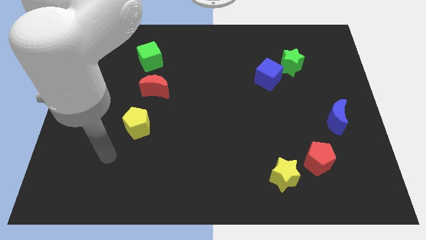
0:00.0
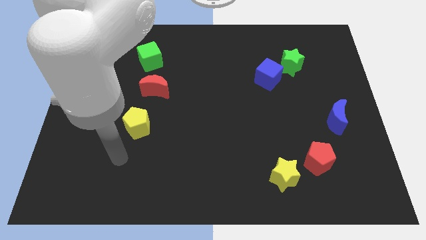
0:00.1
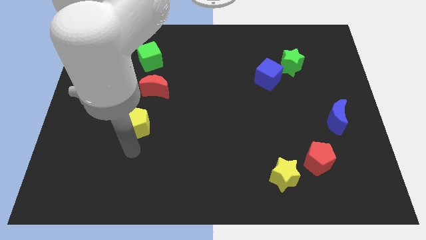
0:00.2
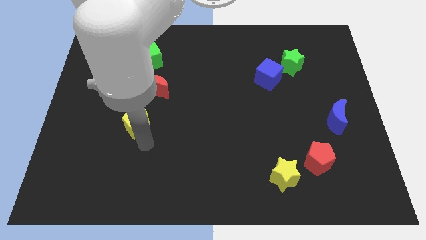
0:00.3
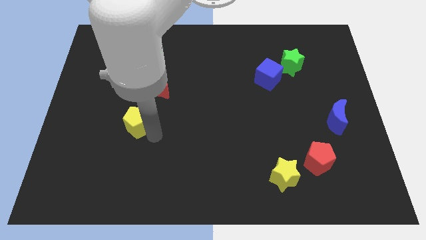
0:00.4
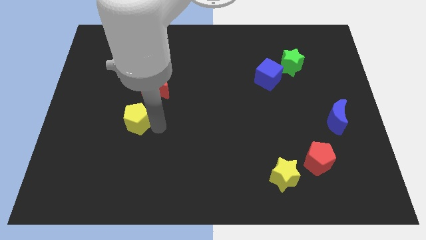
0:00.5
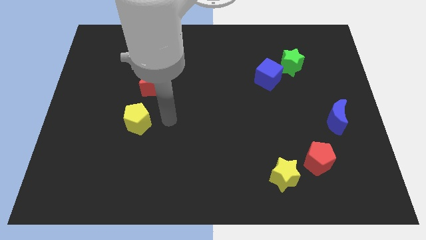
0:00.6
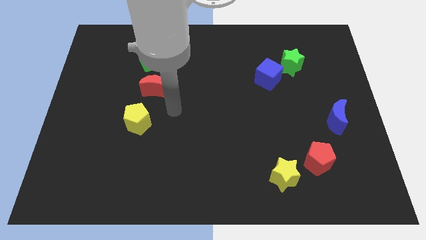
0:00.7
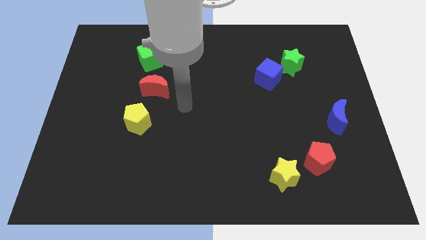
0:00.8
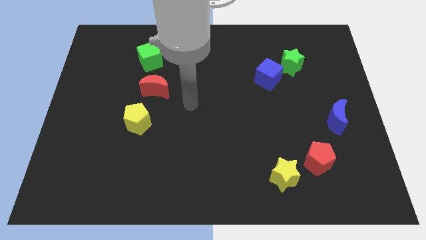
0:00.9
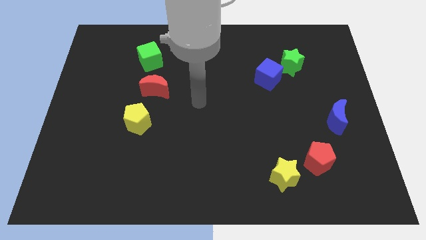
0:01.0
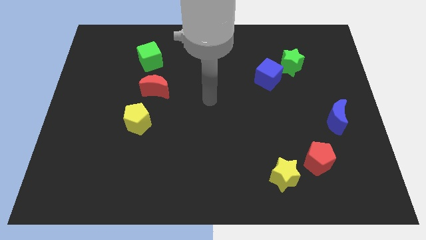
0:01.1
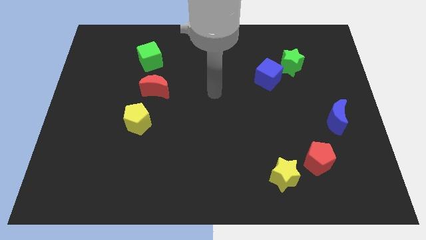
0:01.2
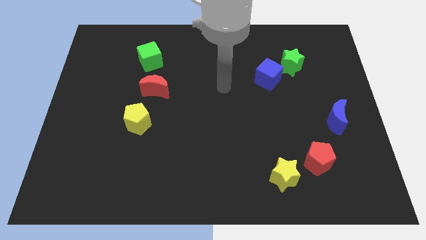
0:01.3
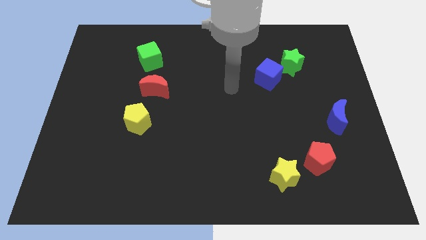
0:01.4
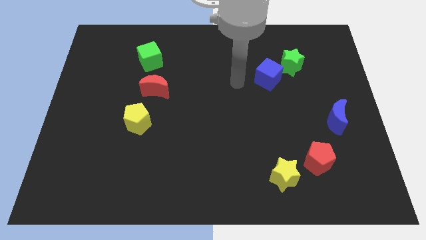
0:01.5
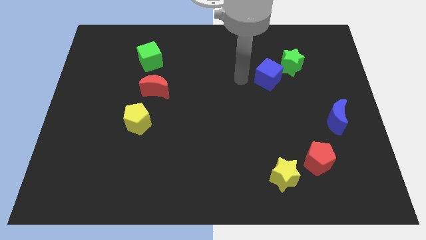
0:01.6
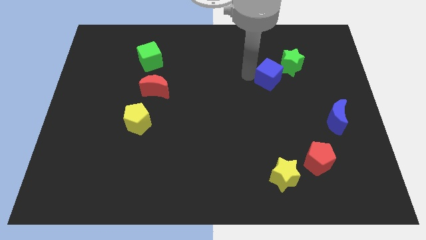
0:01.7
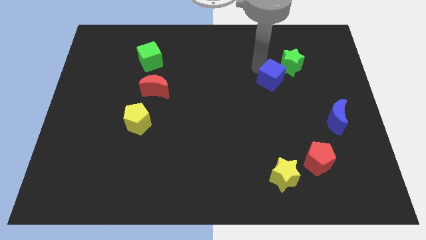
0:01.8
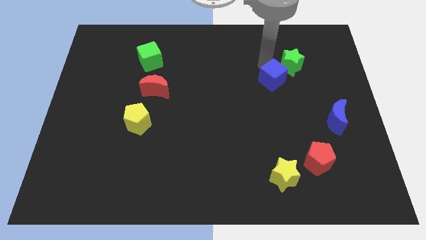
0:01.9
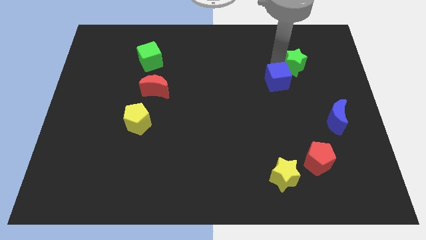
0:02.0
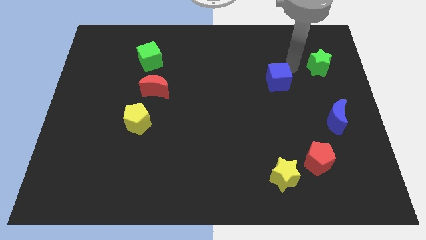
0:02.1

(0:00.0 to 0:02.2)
pull the blue cube apart from the green star

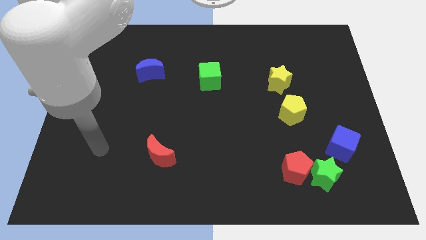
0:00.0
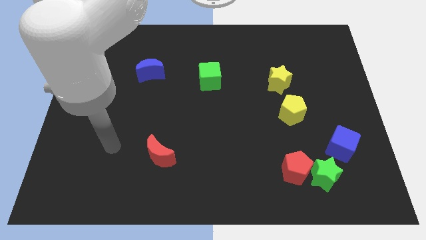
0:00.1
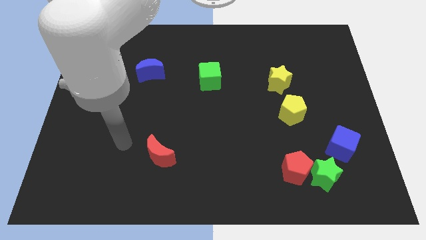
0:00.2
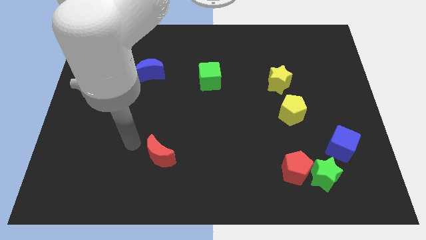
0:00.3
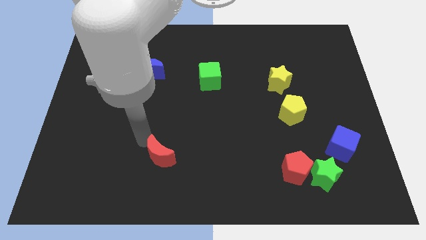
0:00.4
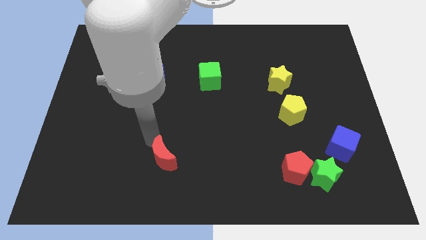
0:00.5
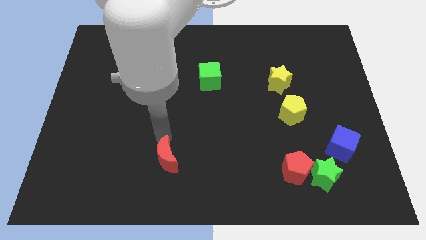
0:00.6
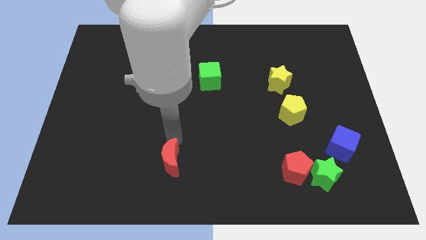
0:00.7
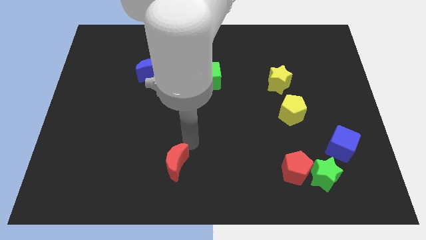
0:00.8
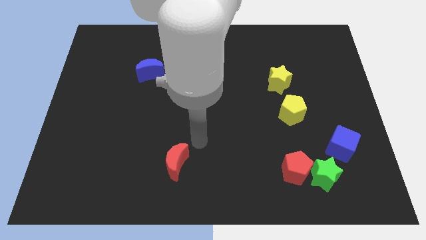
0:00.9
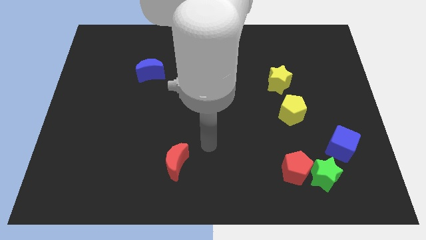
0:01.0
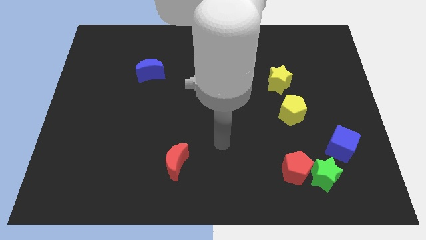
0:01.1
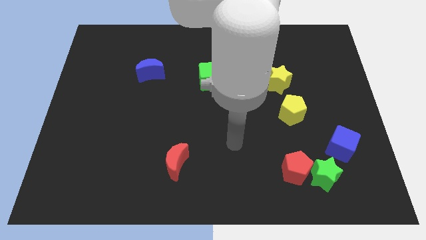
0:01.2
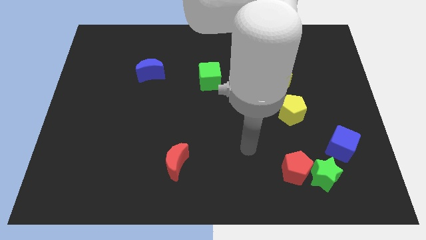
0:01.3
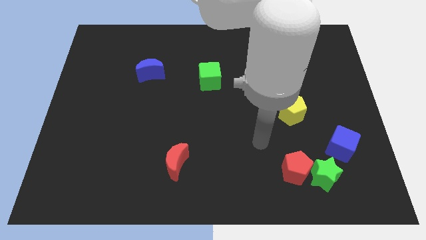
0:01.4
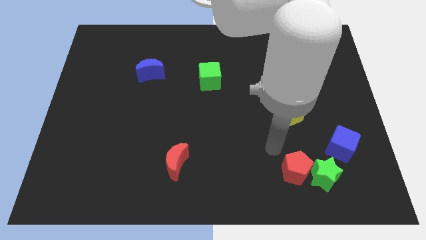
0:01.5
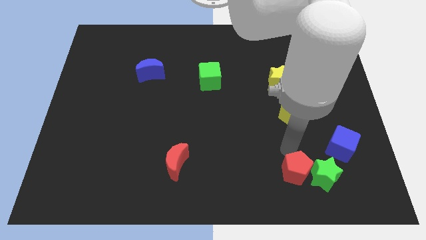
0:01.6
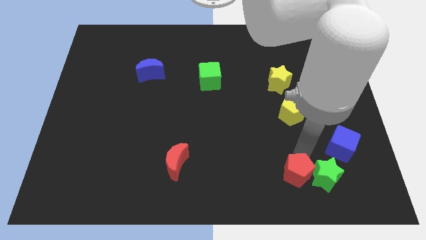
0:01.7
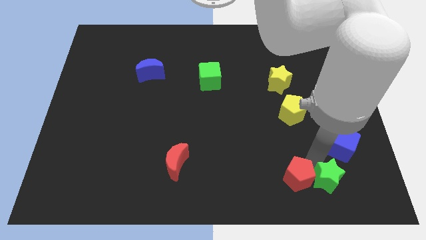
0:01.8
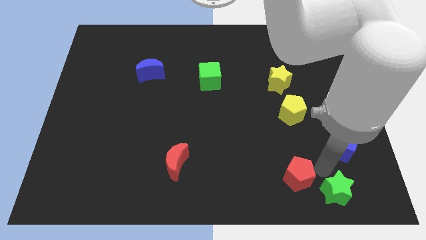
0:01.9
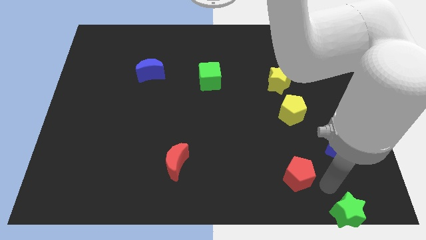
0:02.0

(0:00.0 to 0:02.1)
pull the red pentagon apart from the green star

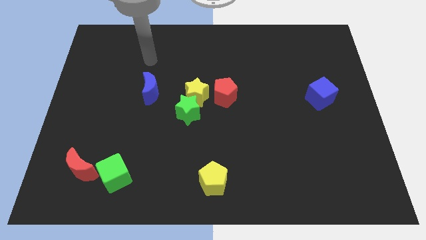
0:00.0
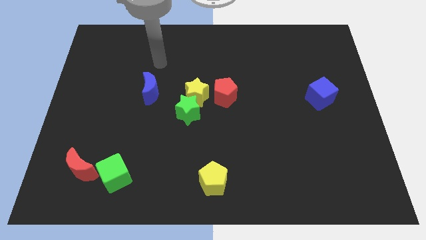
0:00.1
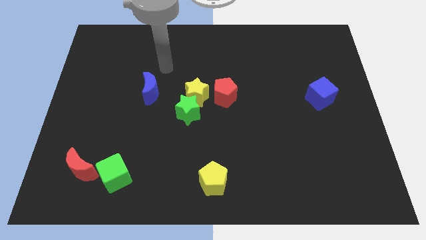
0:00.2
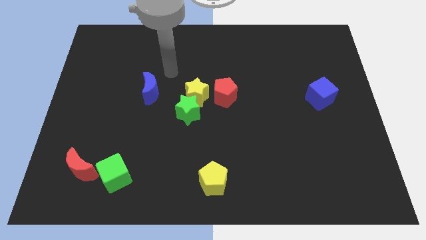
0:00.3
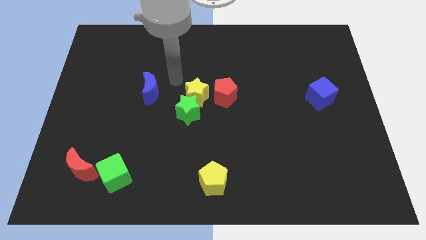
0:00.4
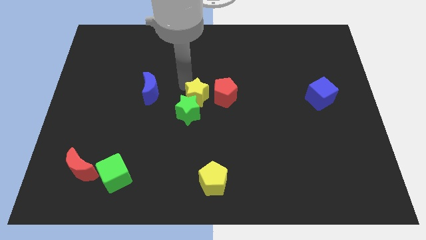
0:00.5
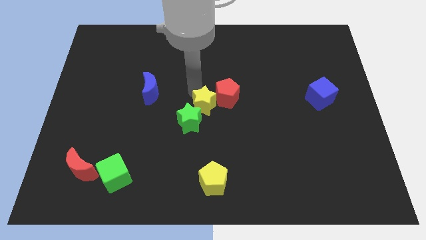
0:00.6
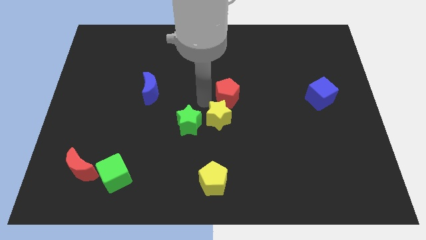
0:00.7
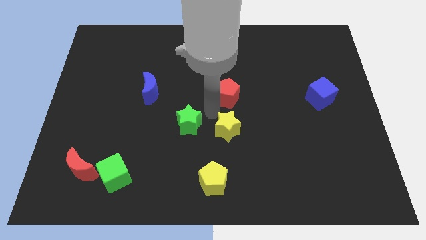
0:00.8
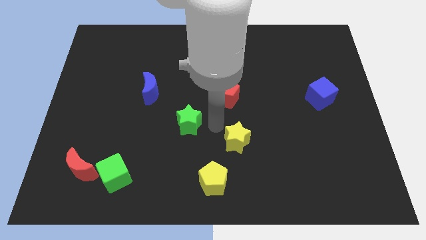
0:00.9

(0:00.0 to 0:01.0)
move the green star away from the yellow star

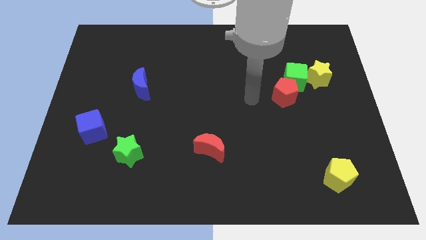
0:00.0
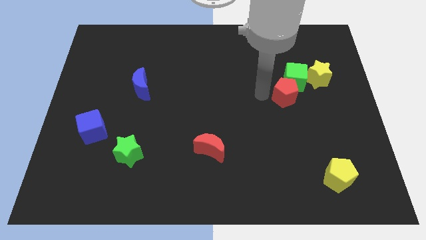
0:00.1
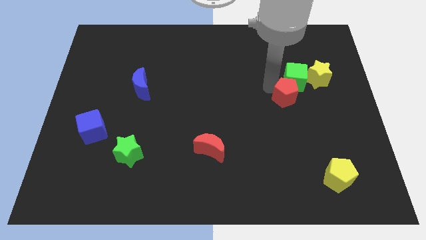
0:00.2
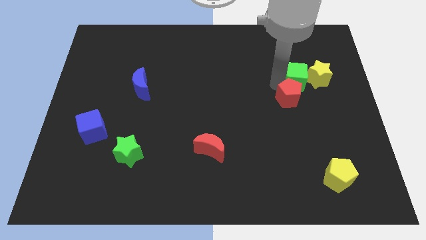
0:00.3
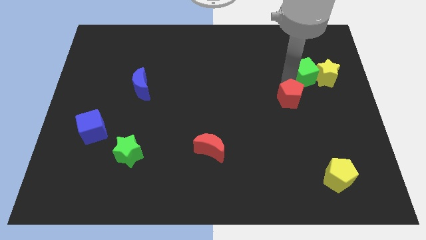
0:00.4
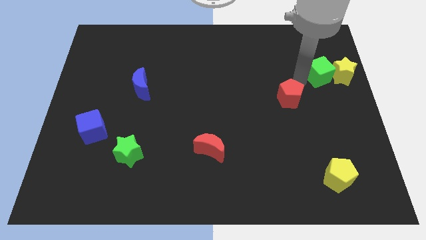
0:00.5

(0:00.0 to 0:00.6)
pull the red pentagon apart from the green cube

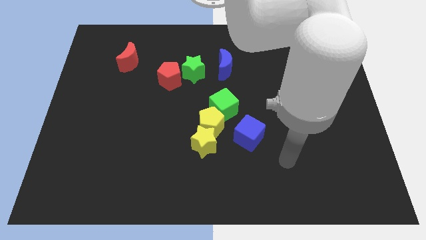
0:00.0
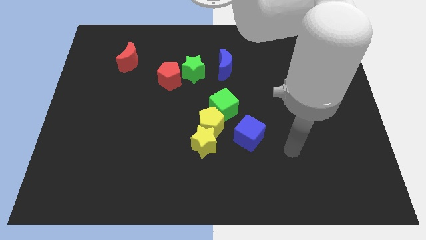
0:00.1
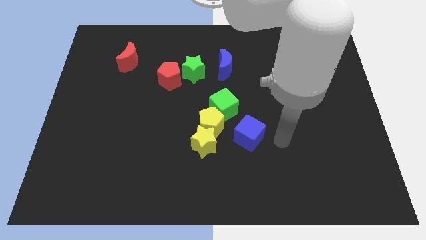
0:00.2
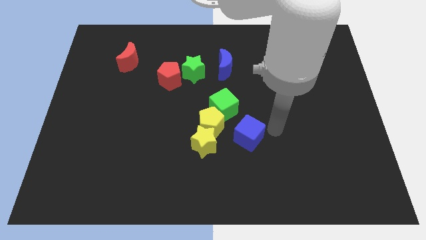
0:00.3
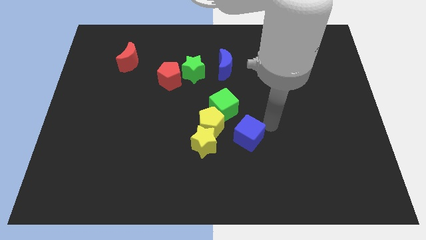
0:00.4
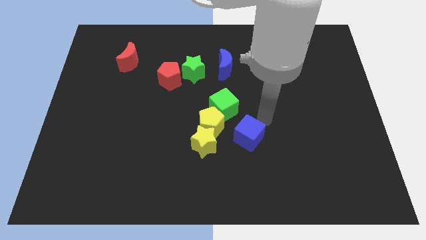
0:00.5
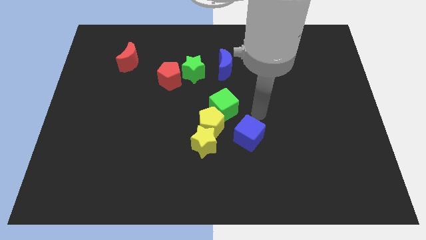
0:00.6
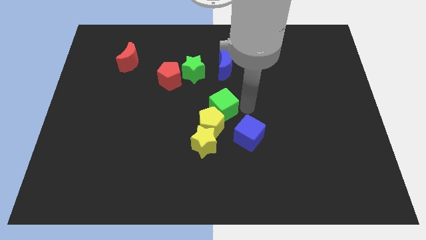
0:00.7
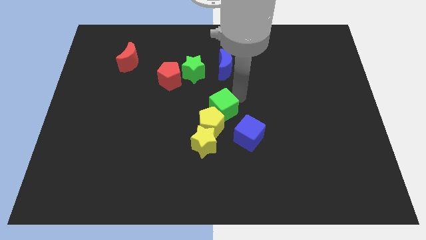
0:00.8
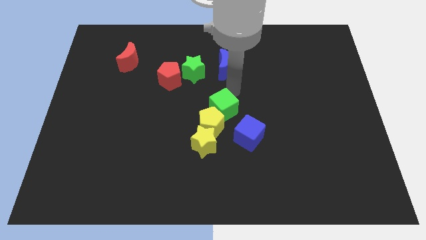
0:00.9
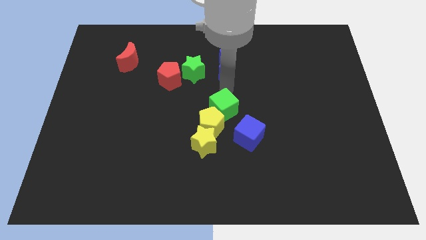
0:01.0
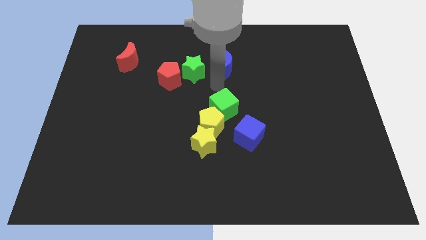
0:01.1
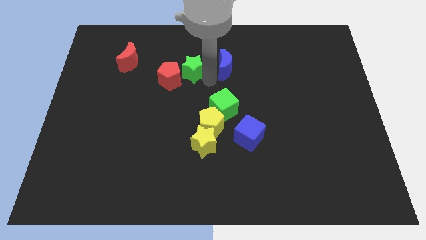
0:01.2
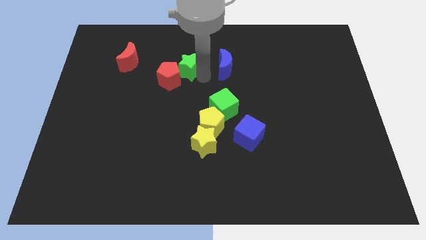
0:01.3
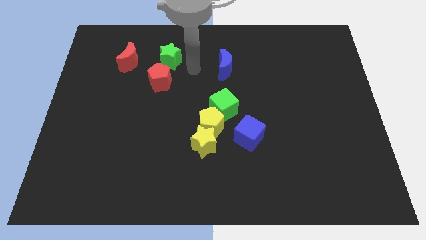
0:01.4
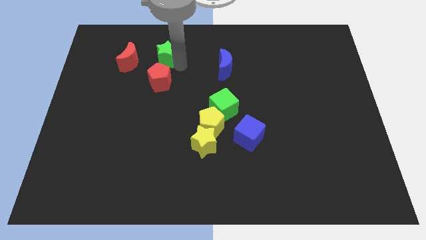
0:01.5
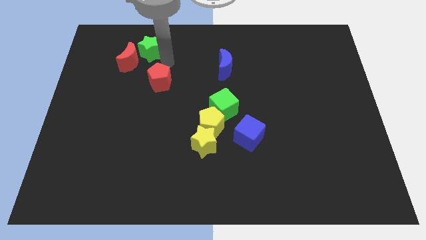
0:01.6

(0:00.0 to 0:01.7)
move the red pentagon away from the green star

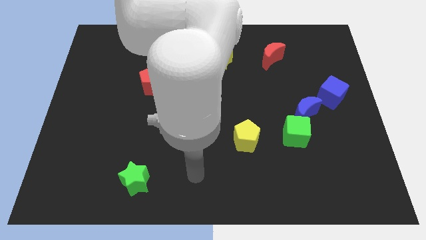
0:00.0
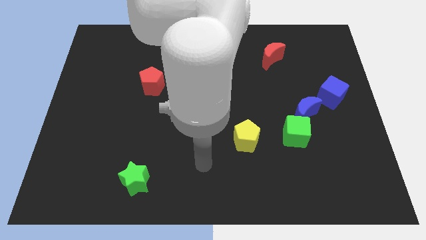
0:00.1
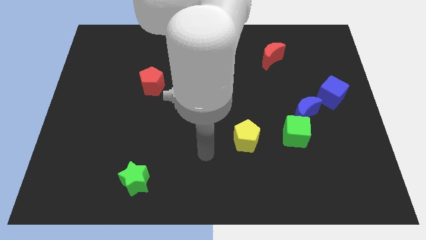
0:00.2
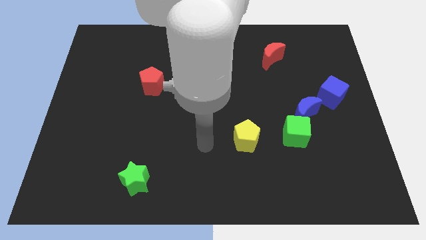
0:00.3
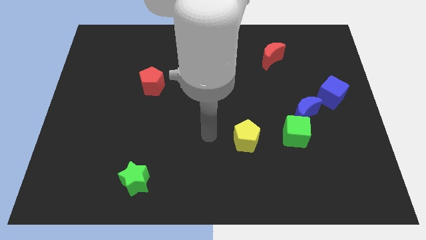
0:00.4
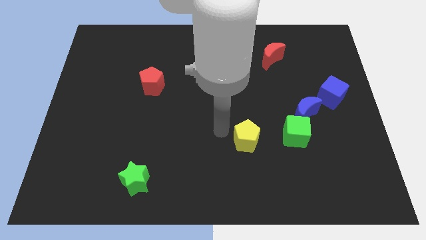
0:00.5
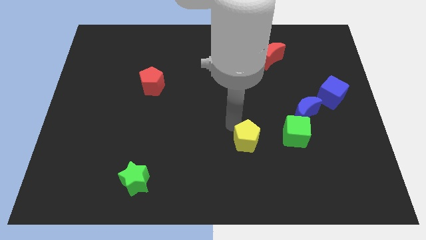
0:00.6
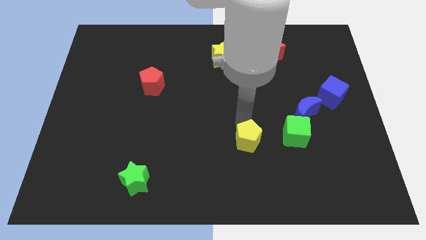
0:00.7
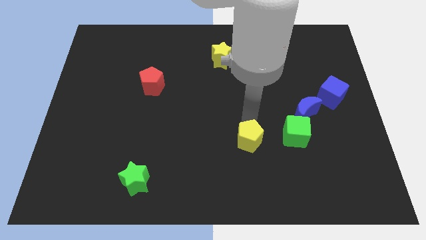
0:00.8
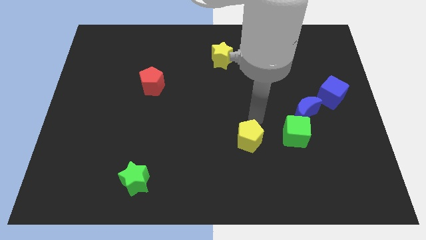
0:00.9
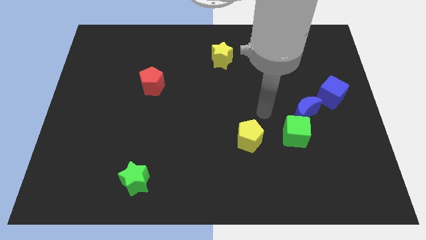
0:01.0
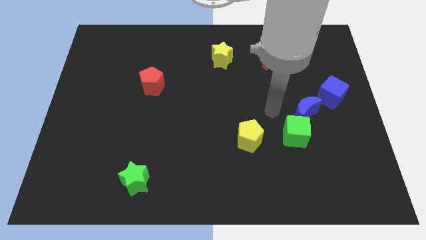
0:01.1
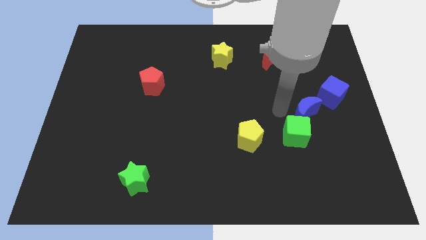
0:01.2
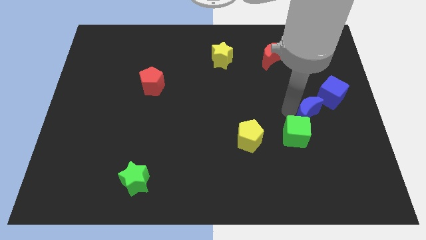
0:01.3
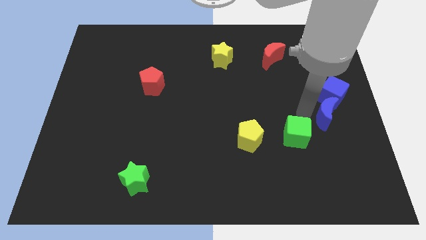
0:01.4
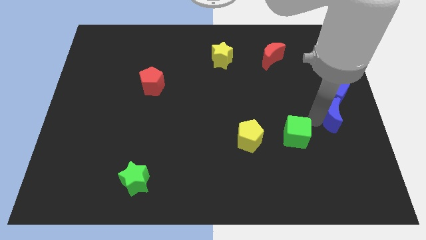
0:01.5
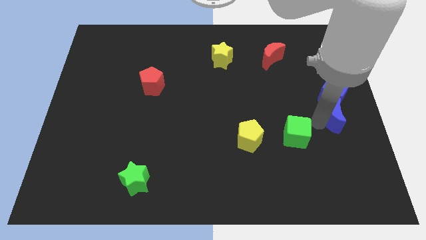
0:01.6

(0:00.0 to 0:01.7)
move the green cube away from the blue moon

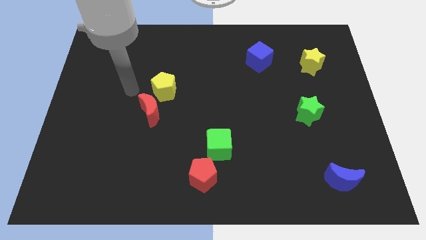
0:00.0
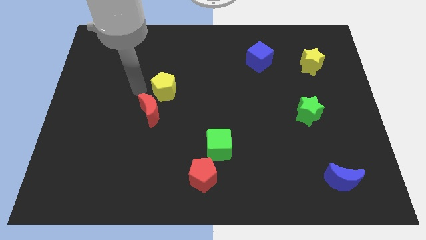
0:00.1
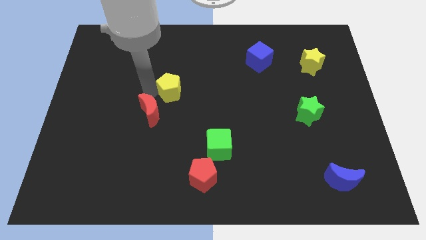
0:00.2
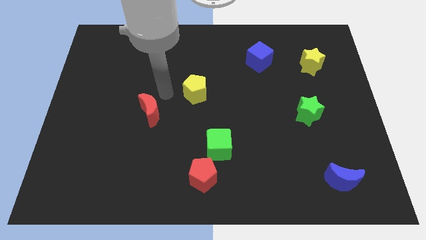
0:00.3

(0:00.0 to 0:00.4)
separate the red moon from the yellow pentagon
